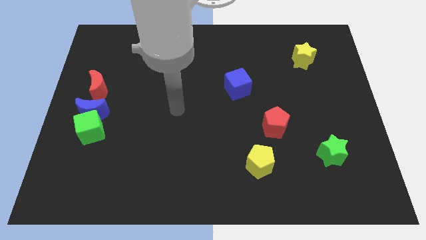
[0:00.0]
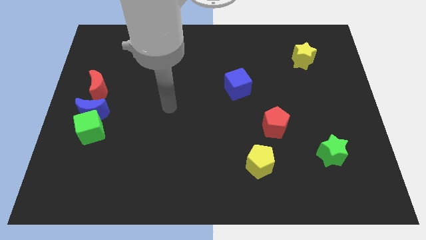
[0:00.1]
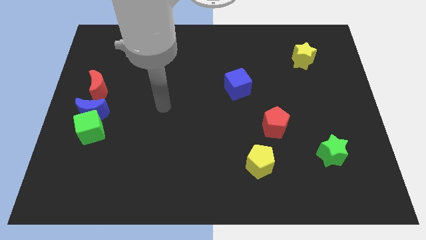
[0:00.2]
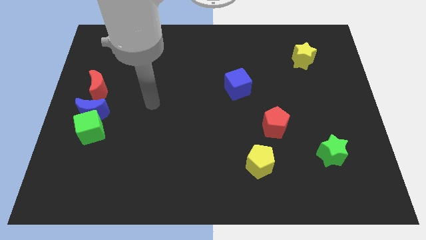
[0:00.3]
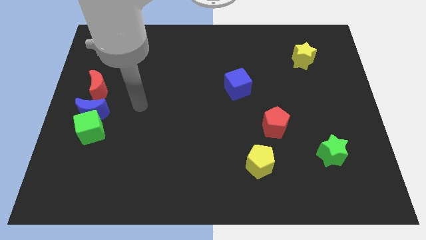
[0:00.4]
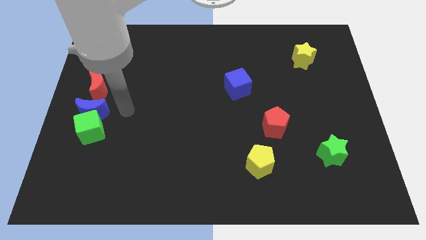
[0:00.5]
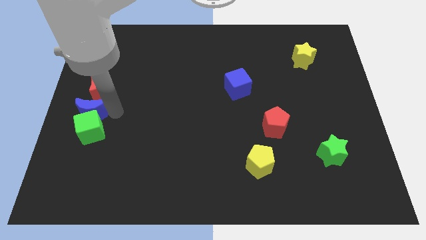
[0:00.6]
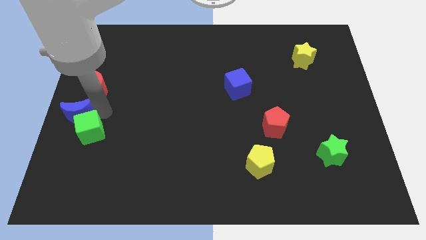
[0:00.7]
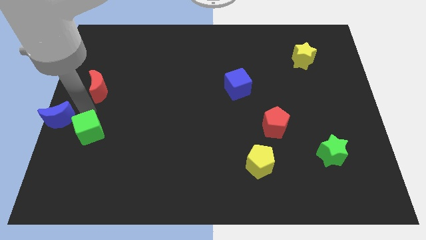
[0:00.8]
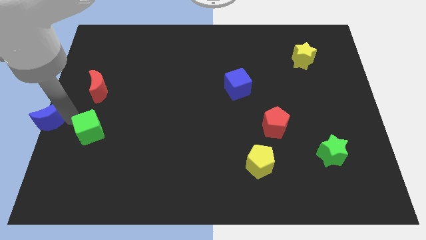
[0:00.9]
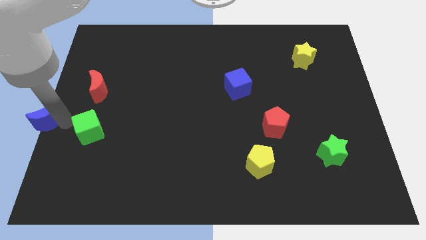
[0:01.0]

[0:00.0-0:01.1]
pull the green cube apart from the blue moon

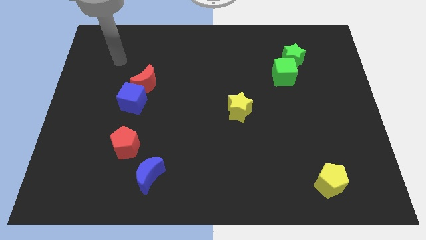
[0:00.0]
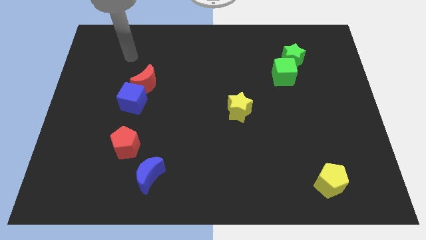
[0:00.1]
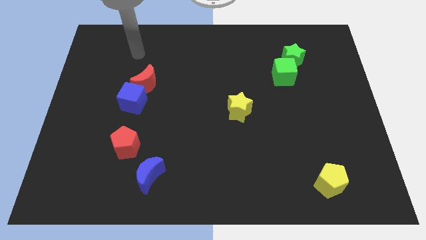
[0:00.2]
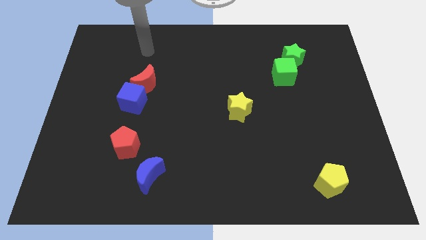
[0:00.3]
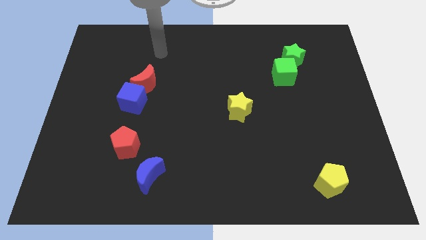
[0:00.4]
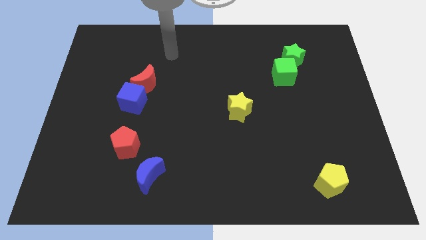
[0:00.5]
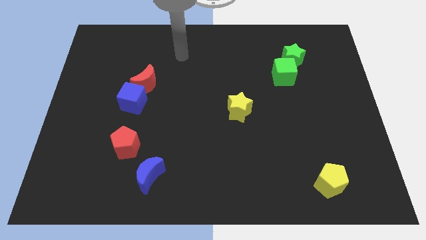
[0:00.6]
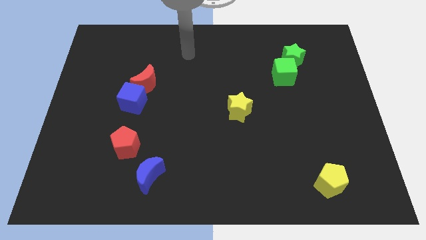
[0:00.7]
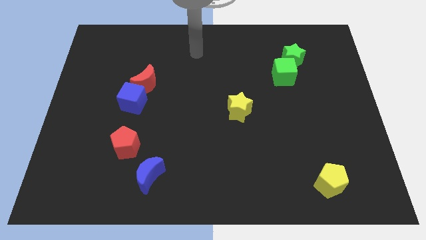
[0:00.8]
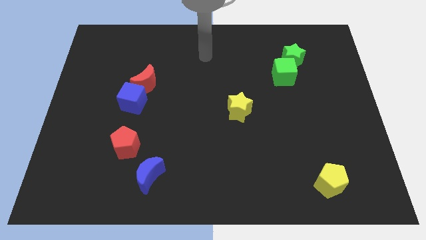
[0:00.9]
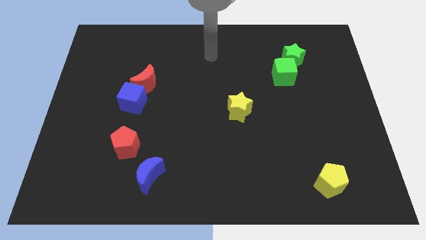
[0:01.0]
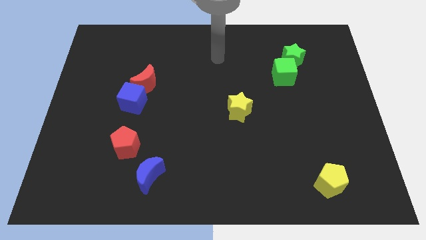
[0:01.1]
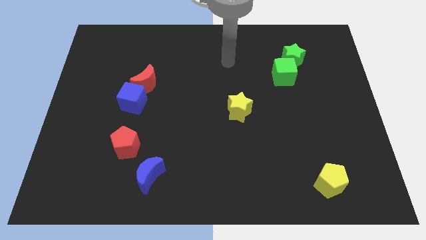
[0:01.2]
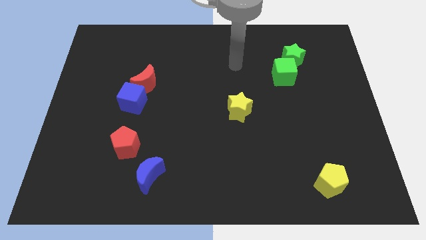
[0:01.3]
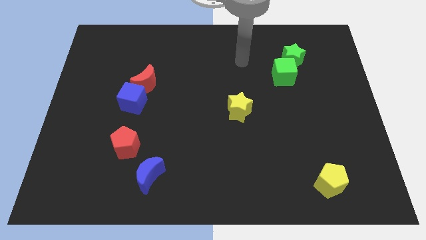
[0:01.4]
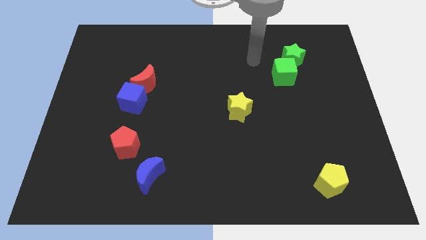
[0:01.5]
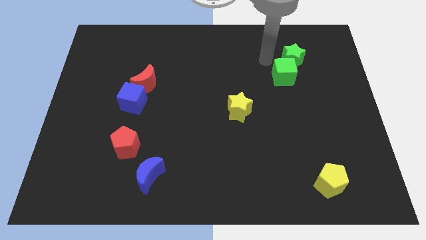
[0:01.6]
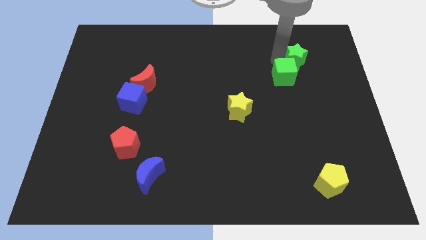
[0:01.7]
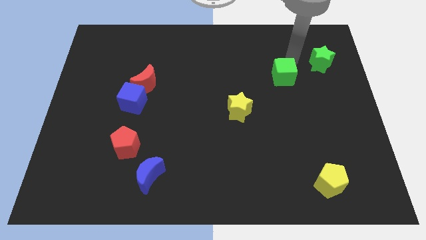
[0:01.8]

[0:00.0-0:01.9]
pull the green cube apart from the green star

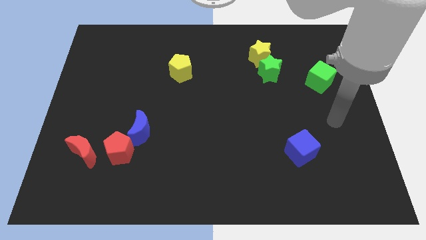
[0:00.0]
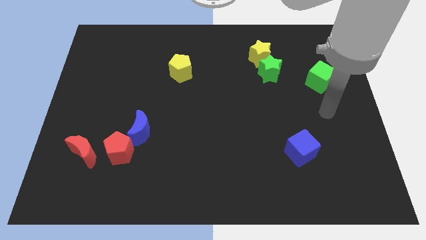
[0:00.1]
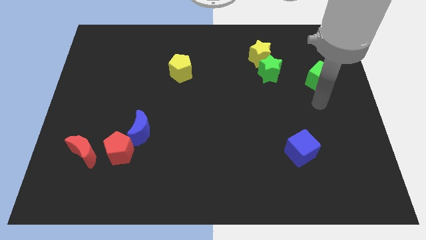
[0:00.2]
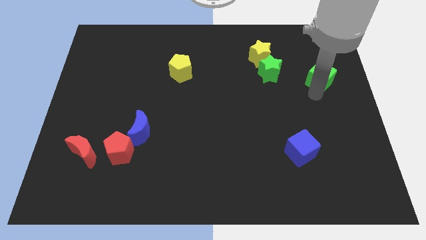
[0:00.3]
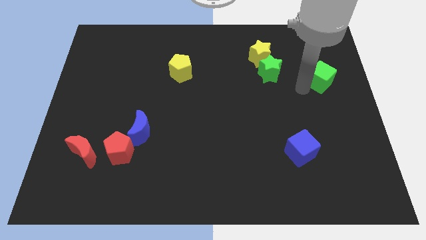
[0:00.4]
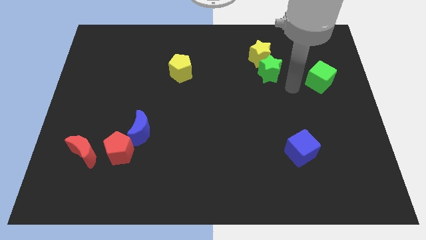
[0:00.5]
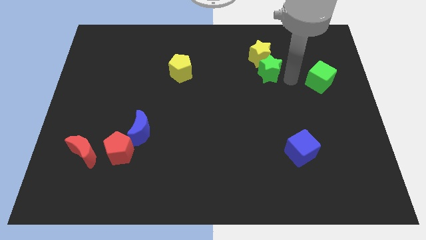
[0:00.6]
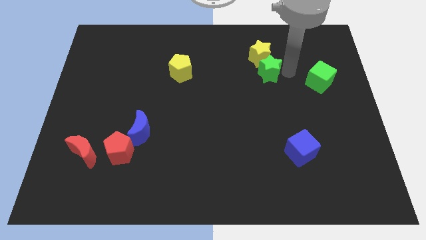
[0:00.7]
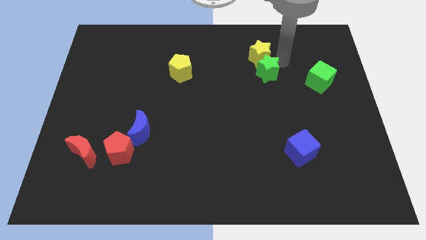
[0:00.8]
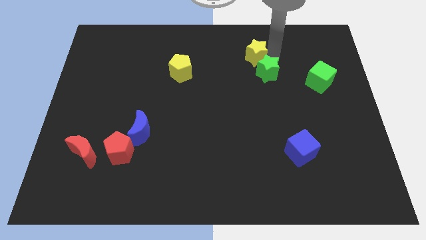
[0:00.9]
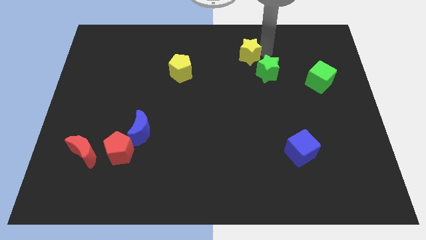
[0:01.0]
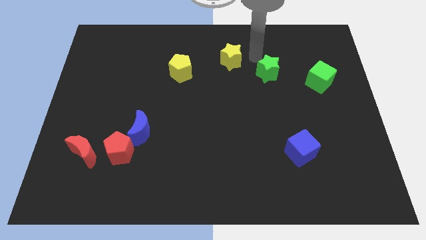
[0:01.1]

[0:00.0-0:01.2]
pull the green star apart from the yellow star

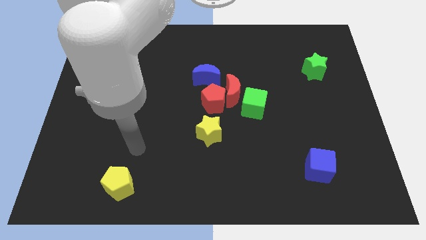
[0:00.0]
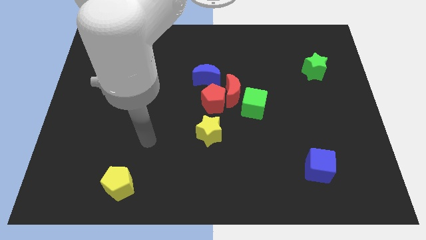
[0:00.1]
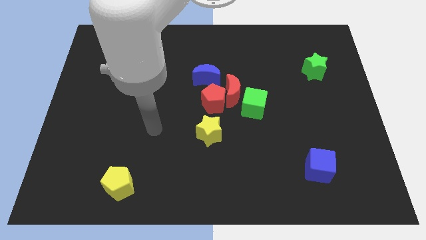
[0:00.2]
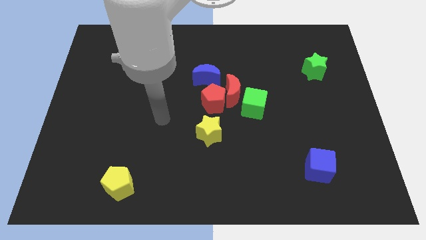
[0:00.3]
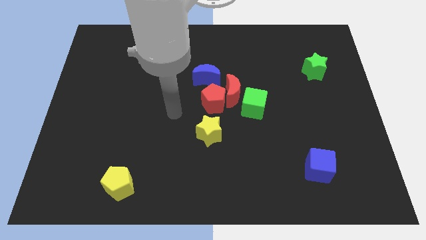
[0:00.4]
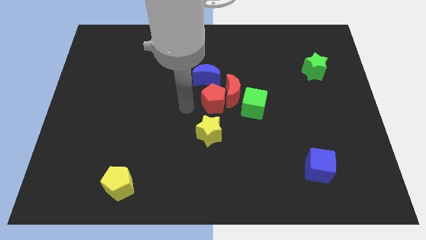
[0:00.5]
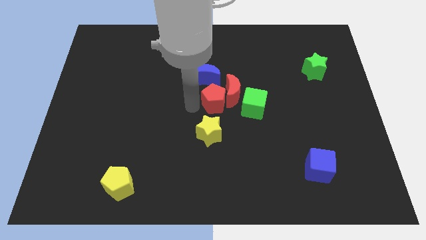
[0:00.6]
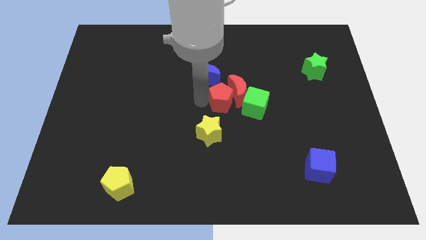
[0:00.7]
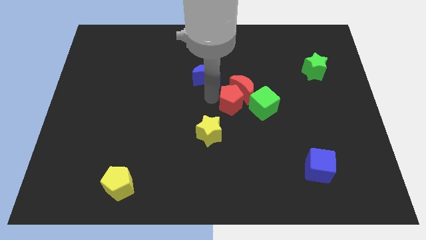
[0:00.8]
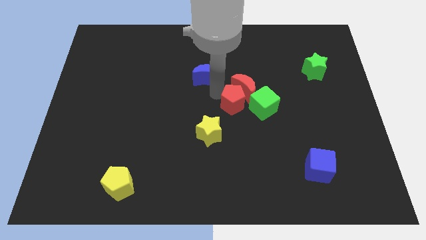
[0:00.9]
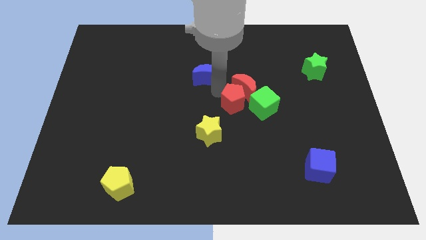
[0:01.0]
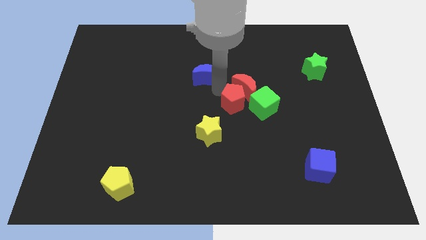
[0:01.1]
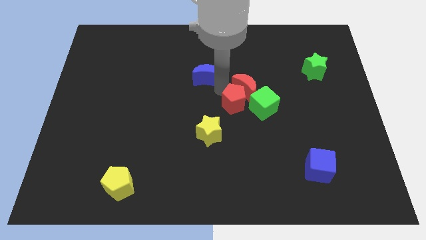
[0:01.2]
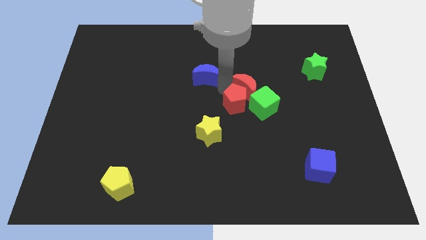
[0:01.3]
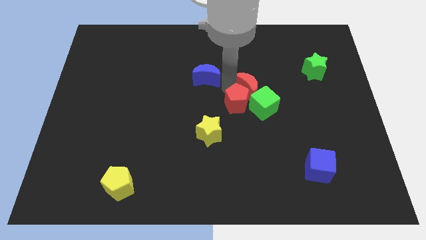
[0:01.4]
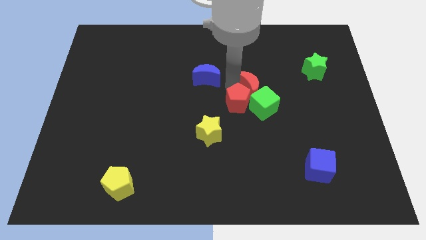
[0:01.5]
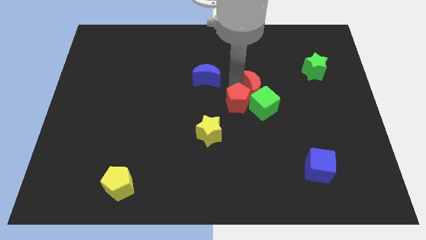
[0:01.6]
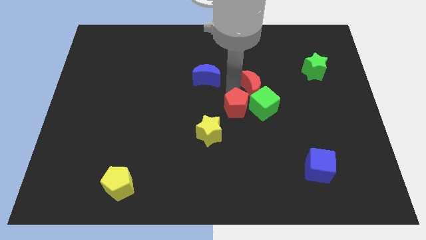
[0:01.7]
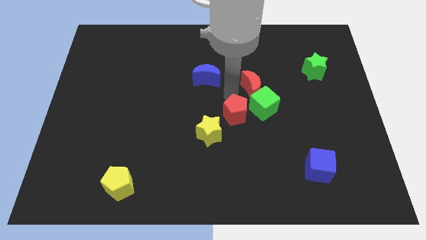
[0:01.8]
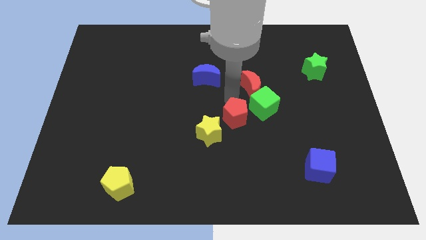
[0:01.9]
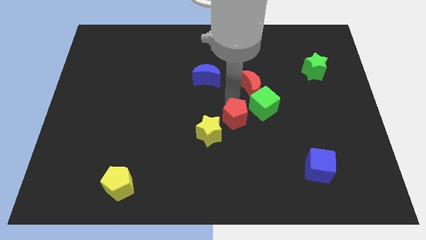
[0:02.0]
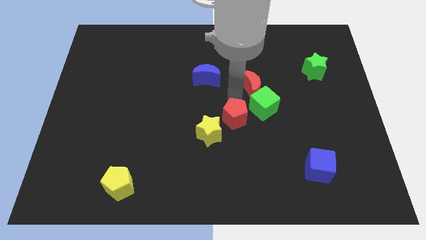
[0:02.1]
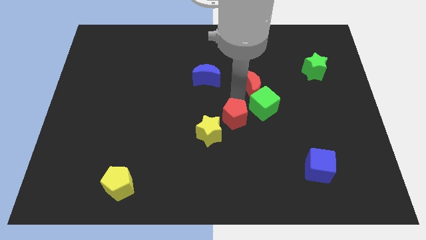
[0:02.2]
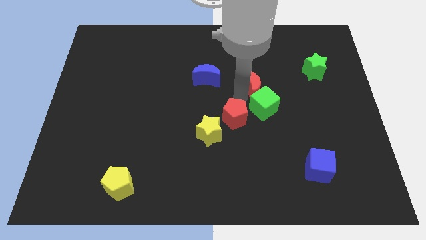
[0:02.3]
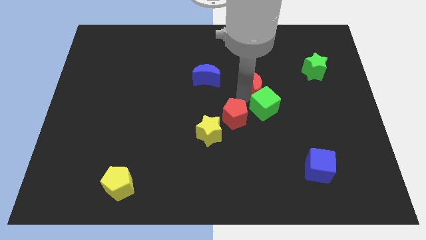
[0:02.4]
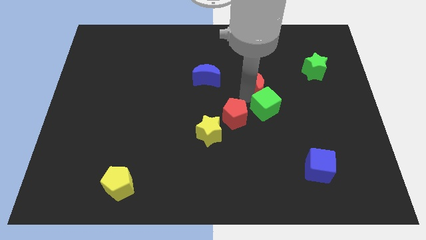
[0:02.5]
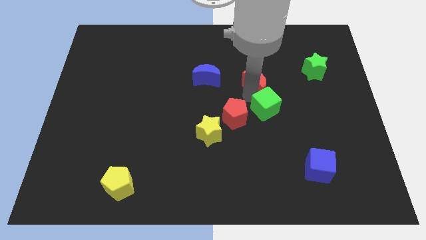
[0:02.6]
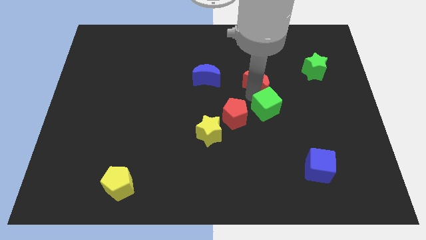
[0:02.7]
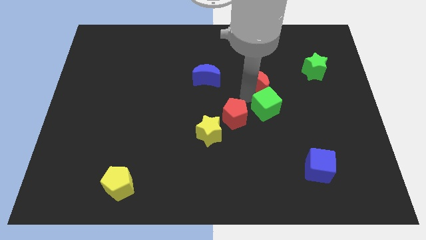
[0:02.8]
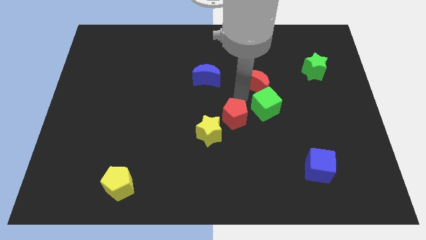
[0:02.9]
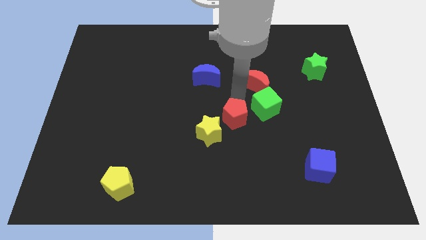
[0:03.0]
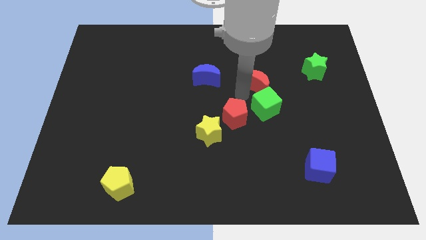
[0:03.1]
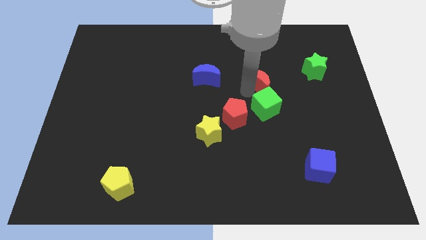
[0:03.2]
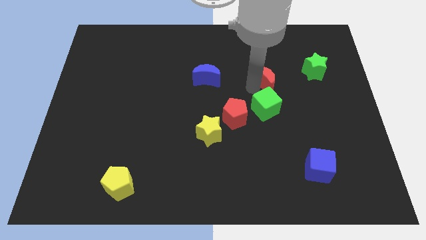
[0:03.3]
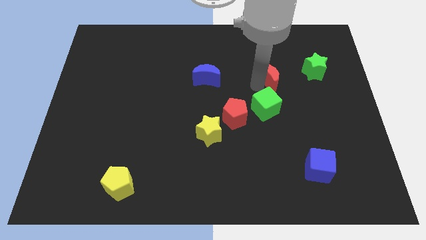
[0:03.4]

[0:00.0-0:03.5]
pull the red moon apart from the red pentagon, green cube, and blue moon

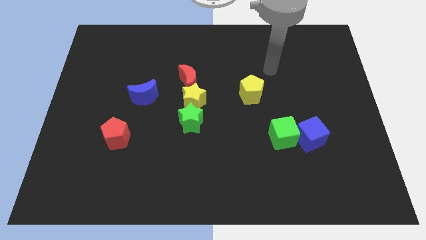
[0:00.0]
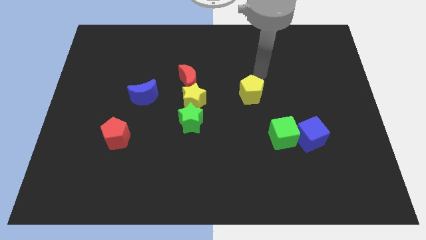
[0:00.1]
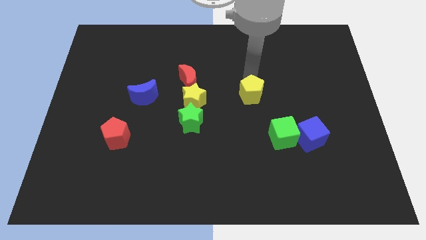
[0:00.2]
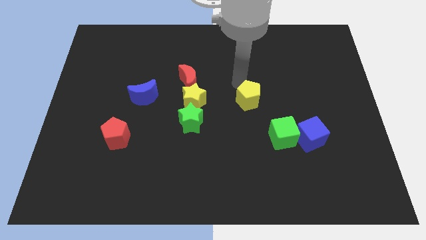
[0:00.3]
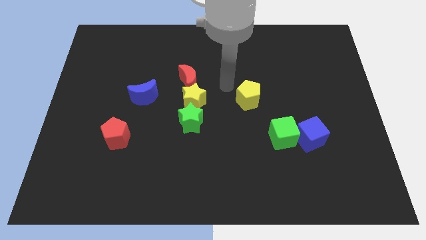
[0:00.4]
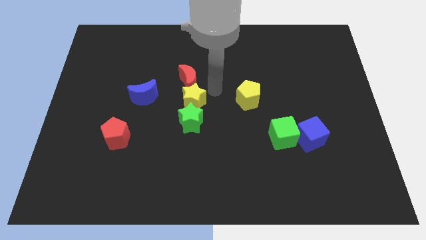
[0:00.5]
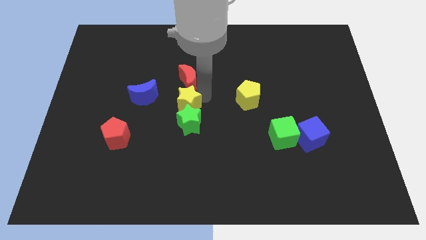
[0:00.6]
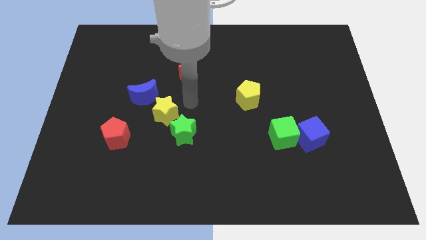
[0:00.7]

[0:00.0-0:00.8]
pull the red moon apart from the yellow star

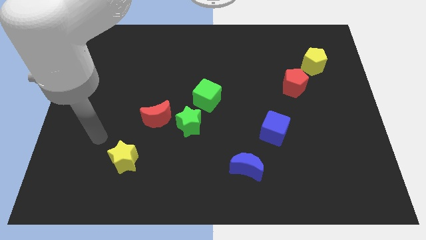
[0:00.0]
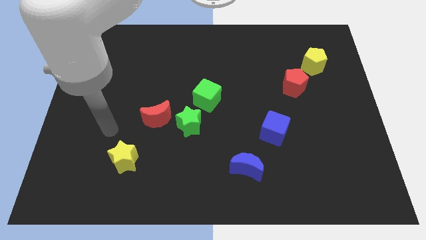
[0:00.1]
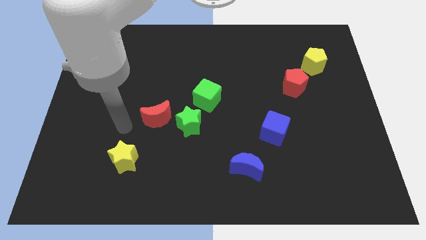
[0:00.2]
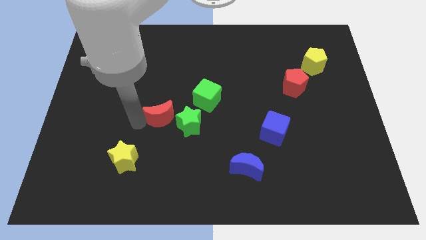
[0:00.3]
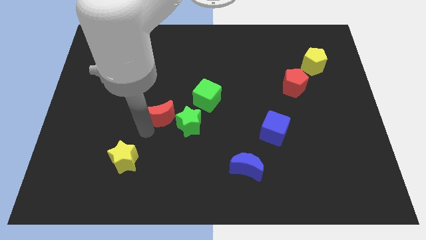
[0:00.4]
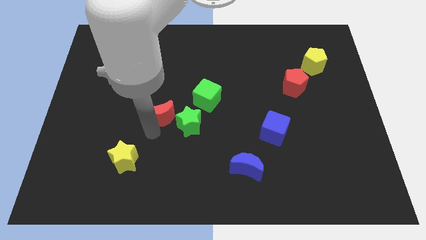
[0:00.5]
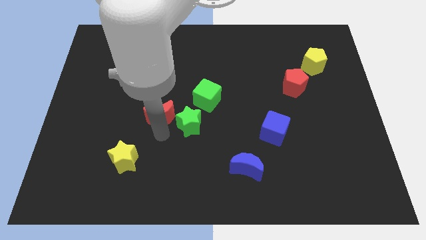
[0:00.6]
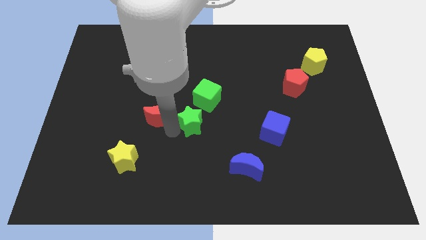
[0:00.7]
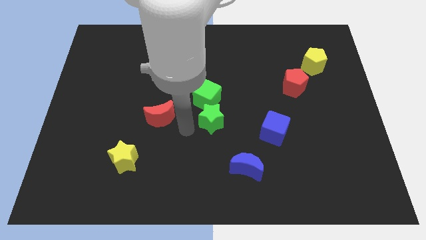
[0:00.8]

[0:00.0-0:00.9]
separate the red moon from the green star
